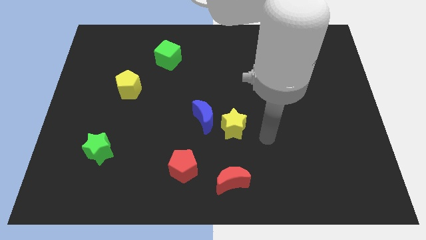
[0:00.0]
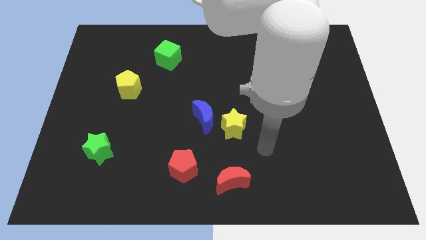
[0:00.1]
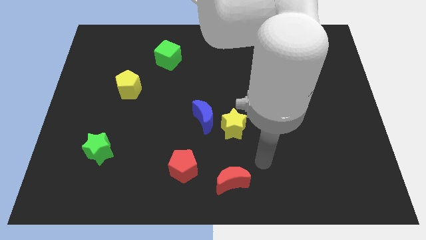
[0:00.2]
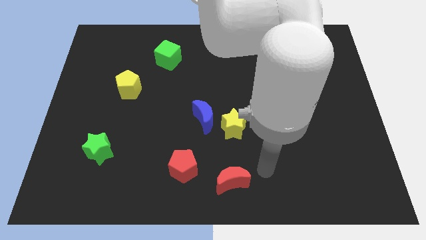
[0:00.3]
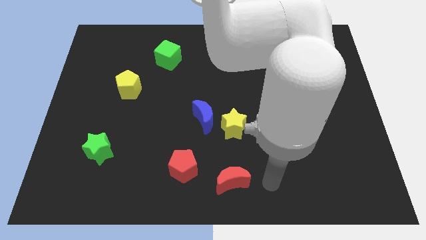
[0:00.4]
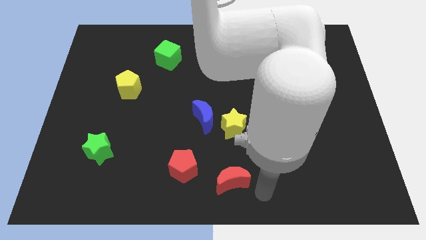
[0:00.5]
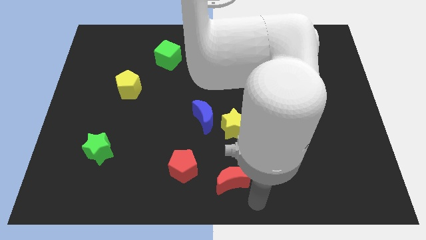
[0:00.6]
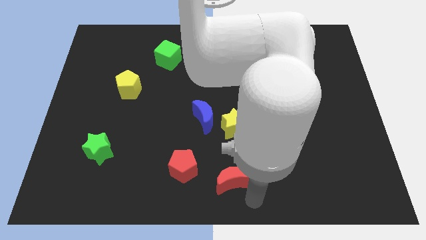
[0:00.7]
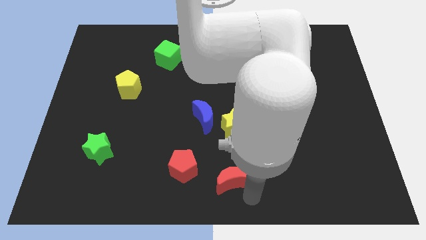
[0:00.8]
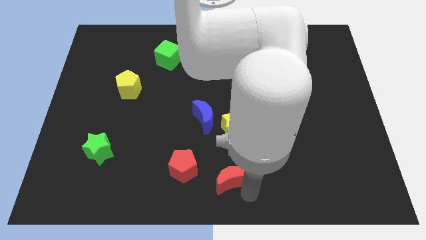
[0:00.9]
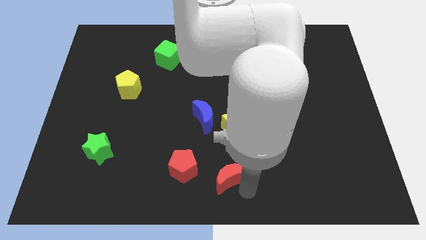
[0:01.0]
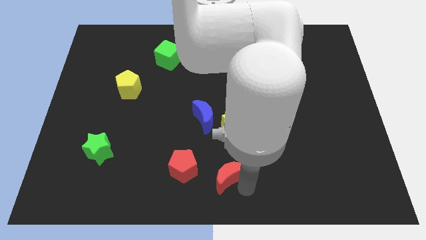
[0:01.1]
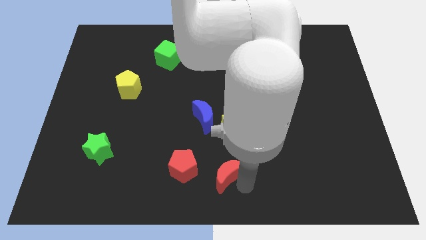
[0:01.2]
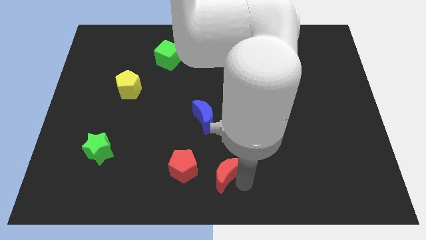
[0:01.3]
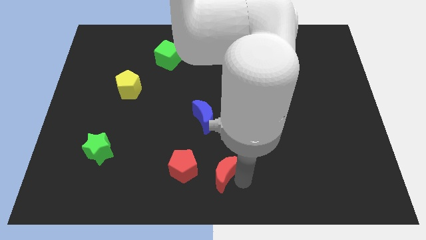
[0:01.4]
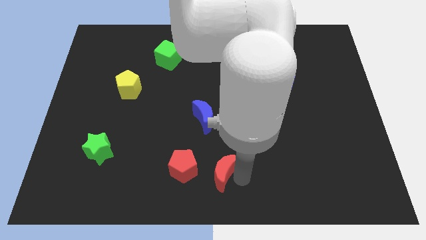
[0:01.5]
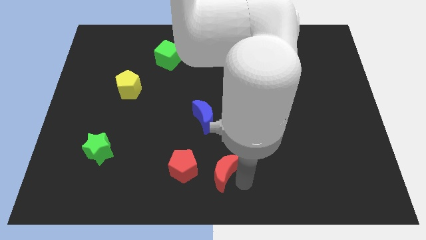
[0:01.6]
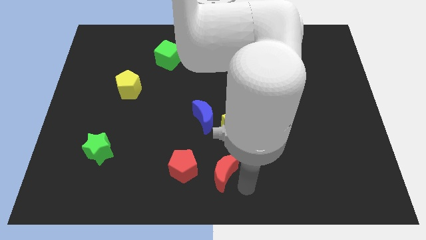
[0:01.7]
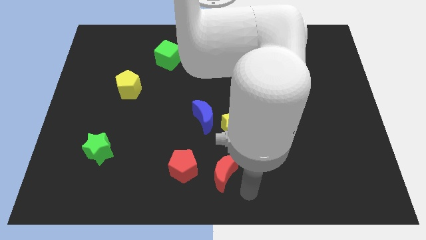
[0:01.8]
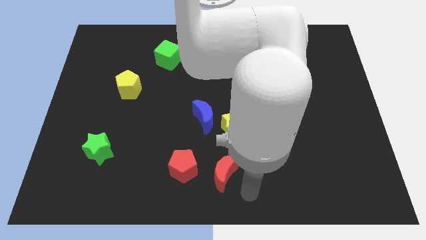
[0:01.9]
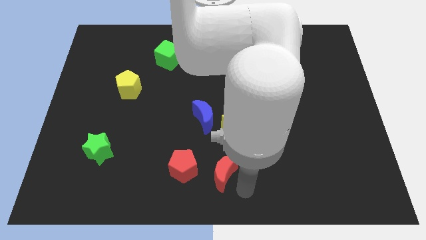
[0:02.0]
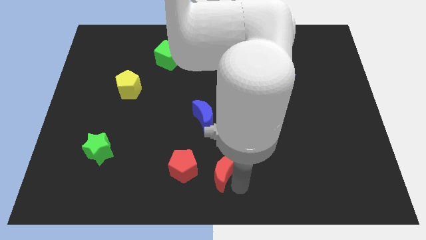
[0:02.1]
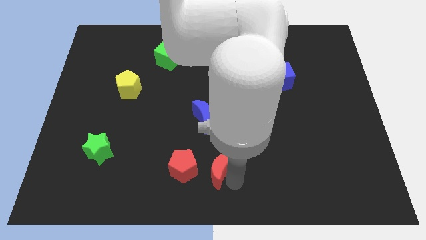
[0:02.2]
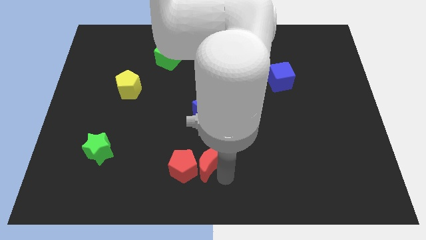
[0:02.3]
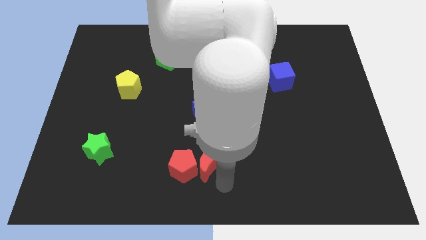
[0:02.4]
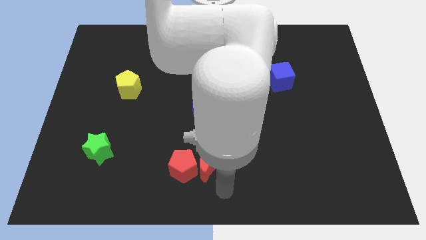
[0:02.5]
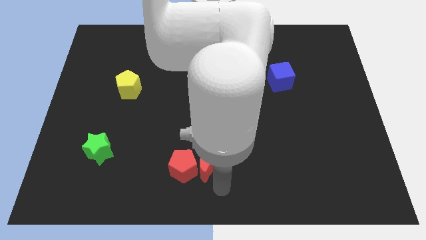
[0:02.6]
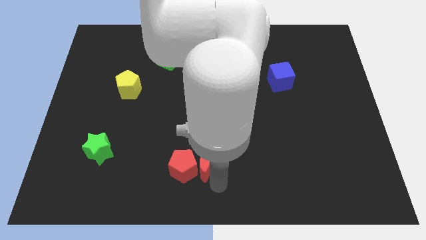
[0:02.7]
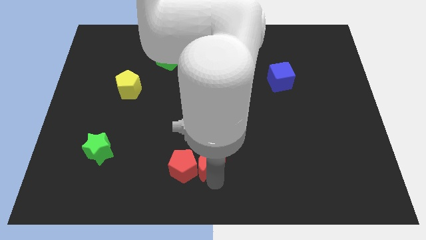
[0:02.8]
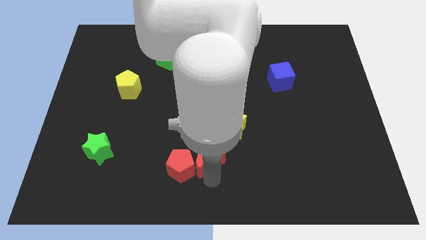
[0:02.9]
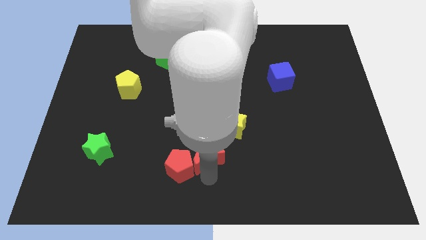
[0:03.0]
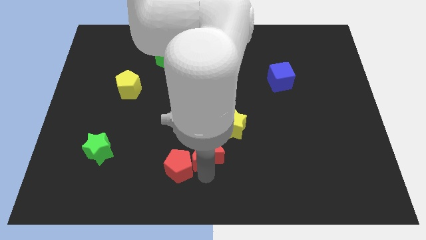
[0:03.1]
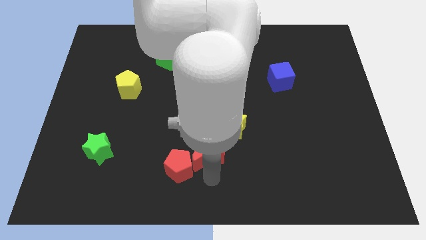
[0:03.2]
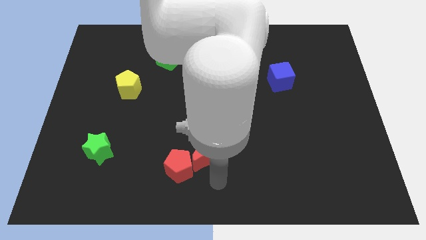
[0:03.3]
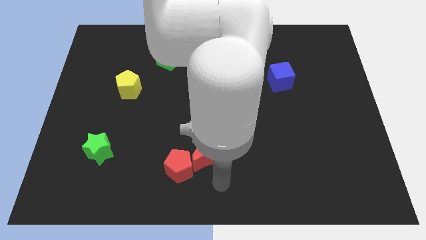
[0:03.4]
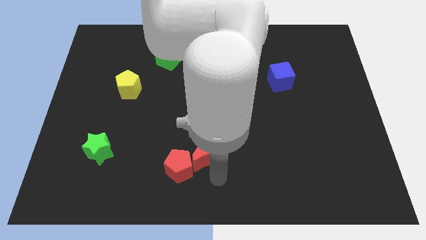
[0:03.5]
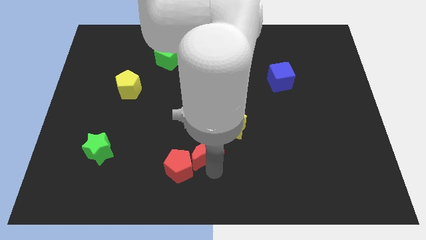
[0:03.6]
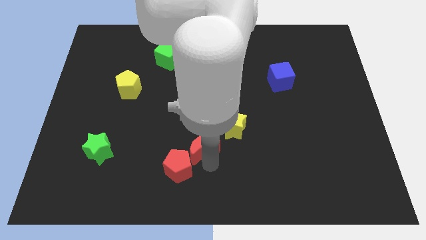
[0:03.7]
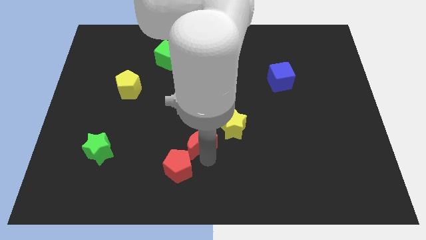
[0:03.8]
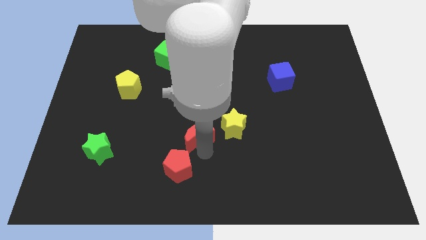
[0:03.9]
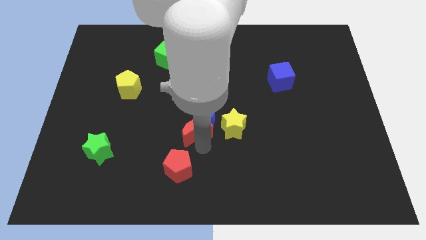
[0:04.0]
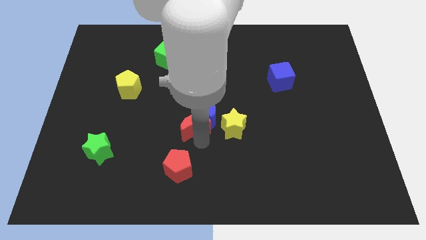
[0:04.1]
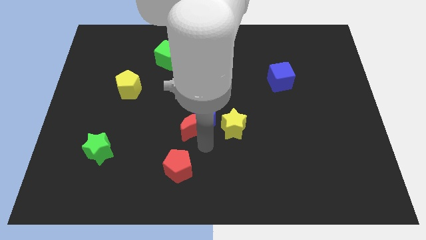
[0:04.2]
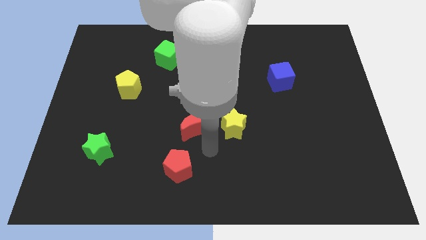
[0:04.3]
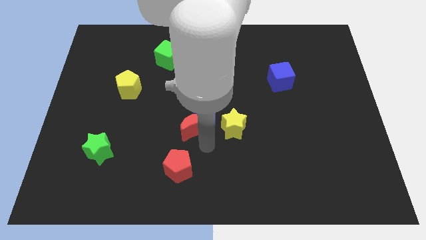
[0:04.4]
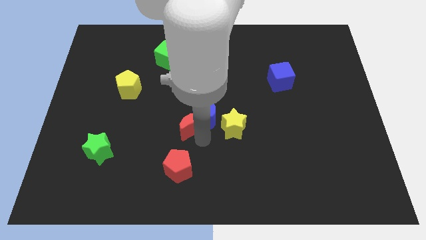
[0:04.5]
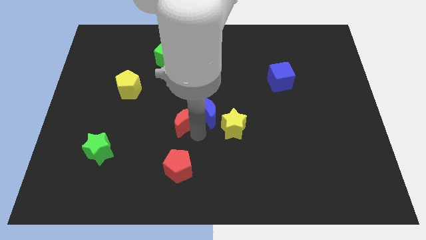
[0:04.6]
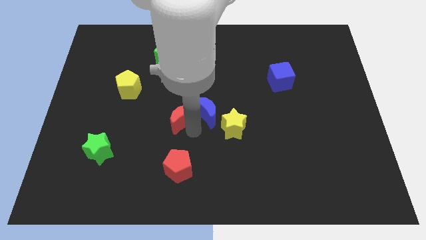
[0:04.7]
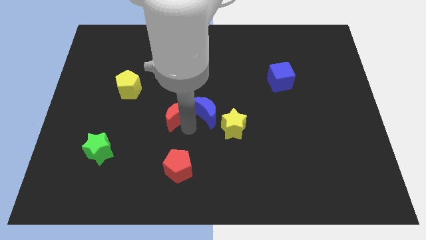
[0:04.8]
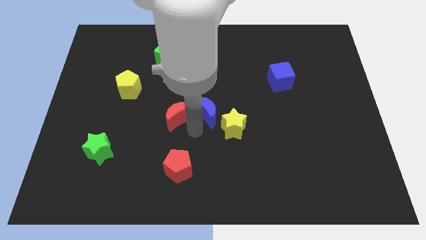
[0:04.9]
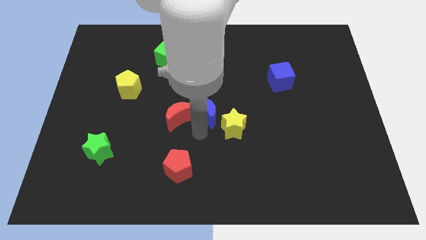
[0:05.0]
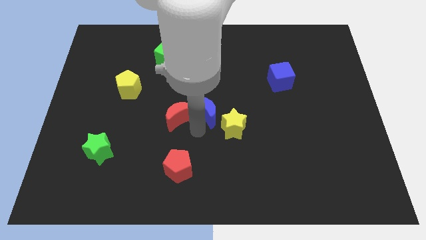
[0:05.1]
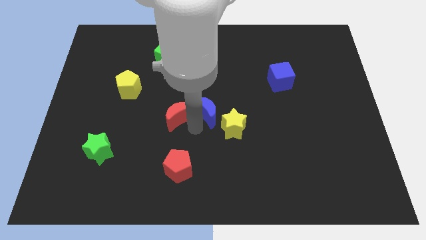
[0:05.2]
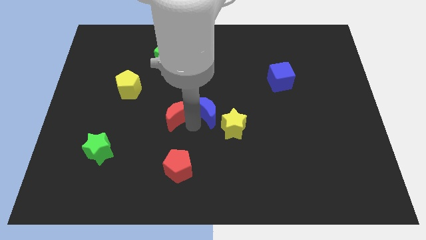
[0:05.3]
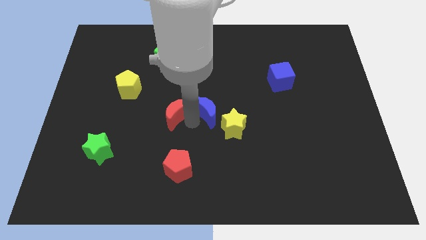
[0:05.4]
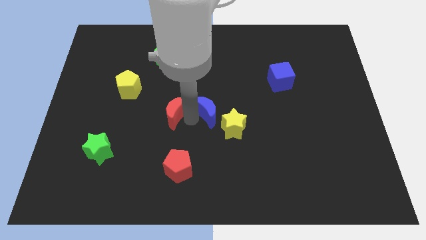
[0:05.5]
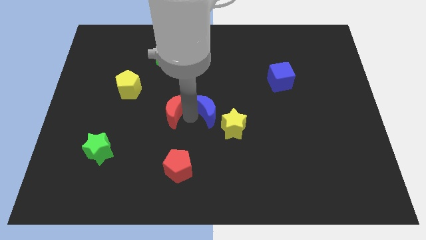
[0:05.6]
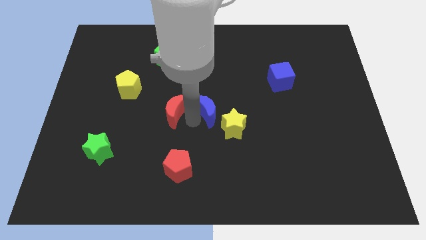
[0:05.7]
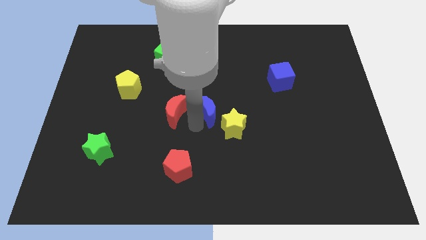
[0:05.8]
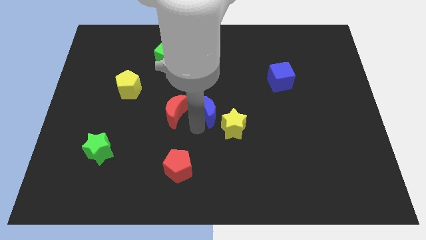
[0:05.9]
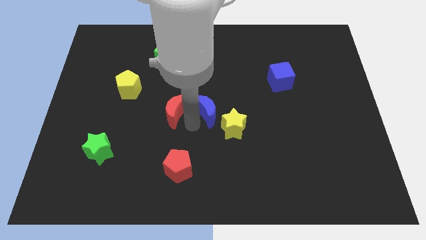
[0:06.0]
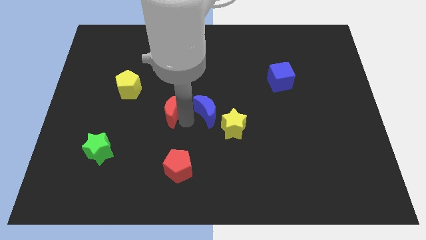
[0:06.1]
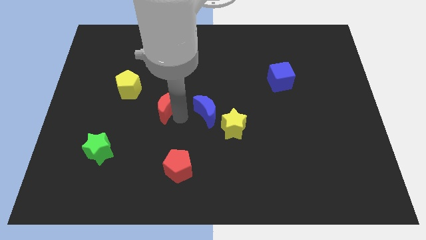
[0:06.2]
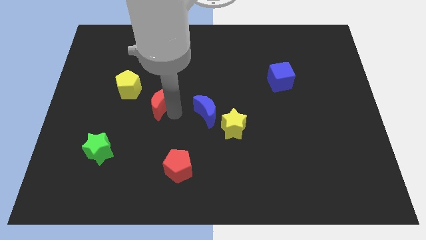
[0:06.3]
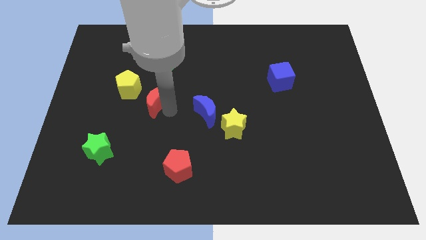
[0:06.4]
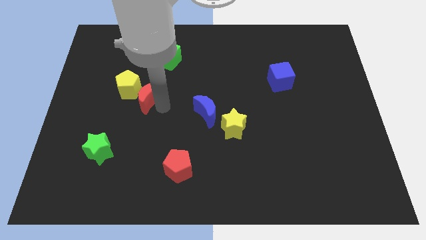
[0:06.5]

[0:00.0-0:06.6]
put the red moon close to the yellow pentagon

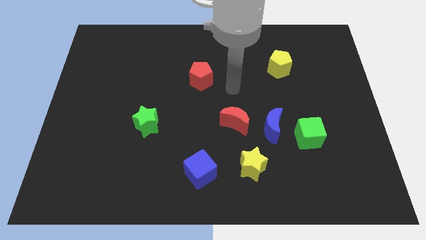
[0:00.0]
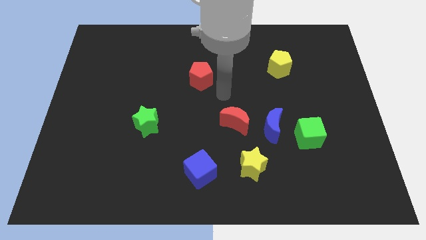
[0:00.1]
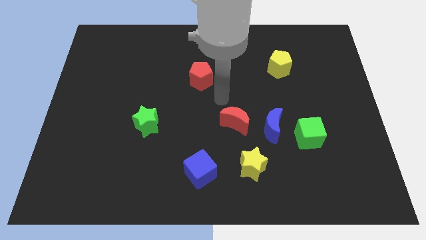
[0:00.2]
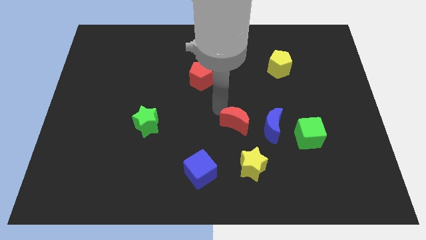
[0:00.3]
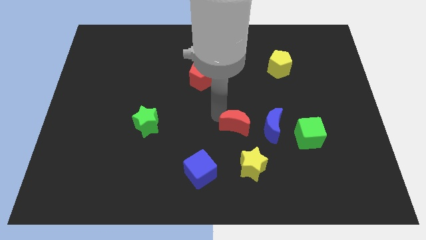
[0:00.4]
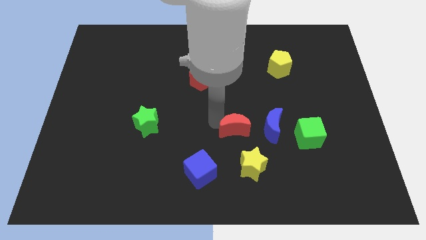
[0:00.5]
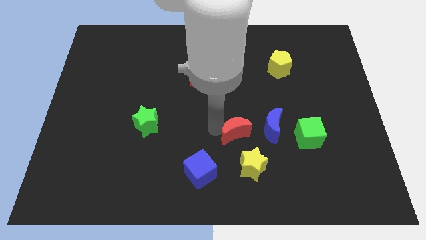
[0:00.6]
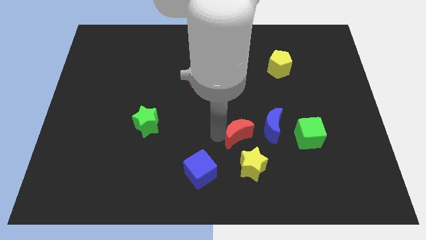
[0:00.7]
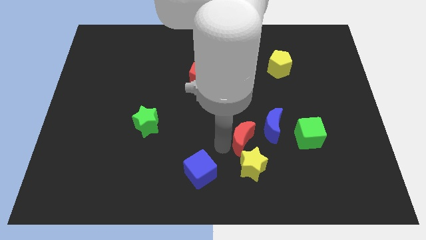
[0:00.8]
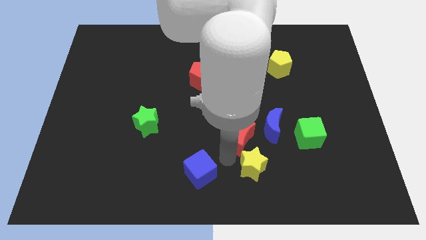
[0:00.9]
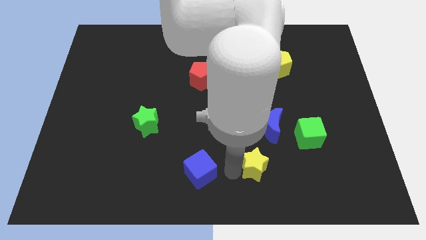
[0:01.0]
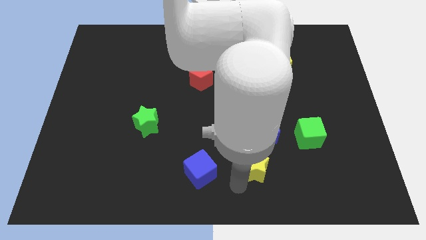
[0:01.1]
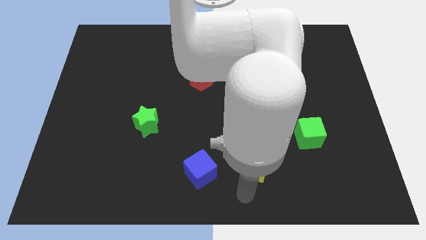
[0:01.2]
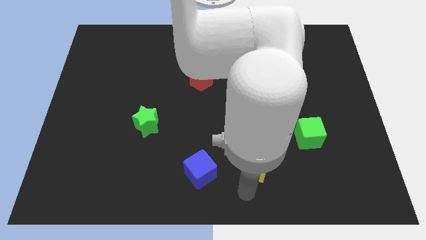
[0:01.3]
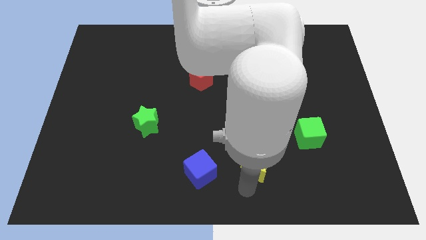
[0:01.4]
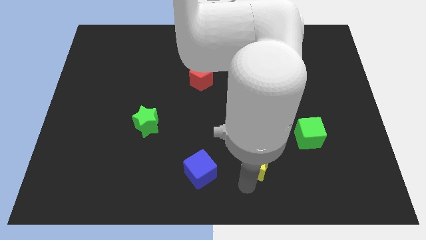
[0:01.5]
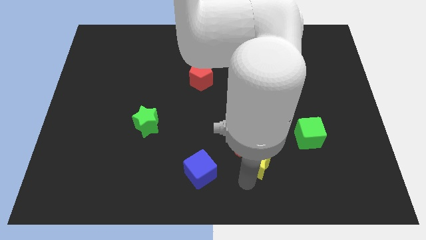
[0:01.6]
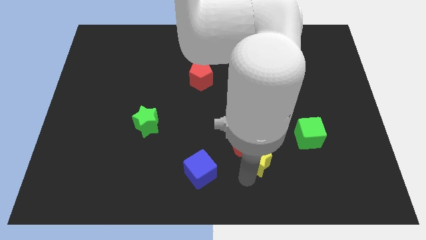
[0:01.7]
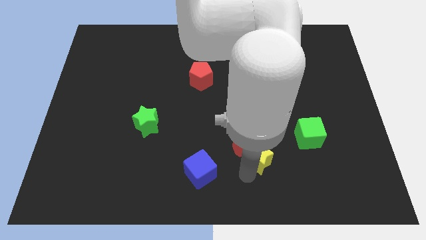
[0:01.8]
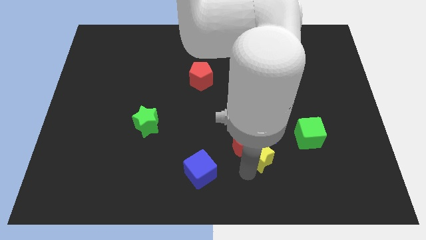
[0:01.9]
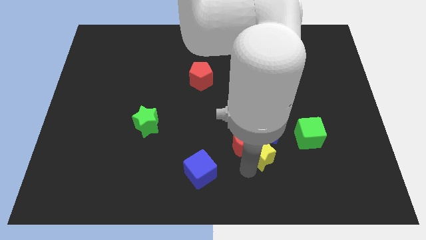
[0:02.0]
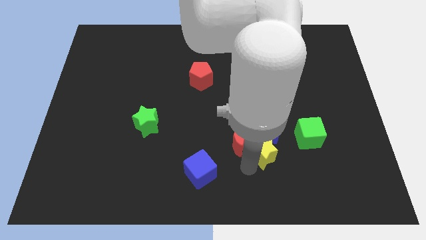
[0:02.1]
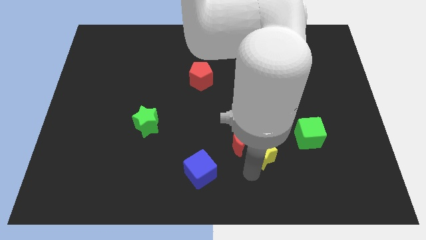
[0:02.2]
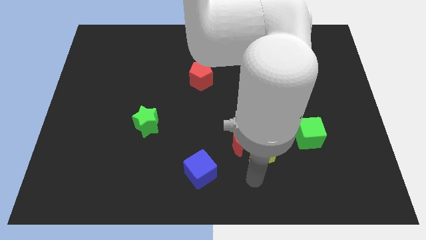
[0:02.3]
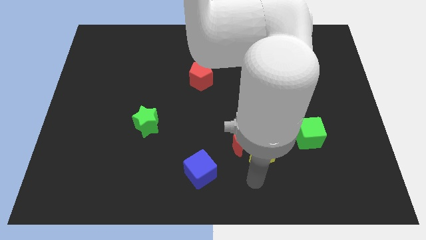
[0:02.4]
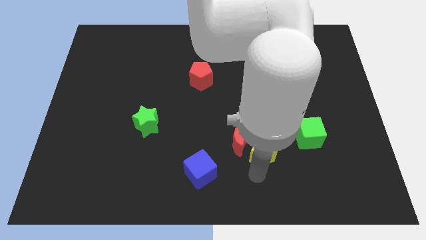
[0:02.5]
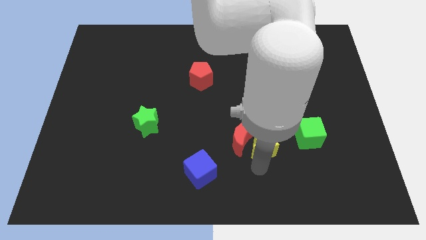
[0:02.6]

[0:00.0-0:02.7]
move the yellow star close to the blue moon
